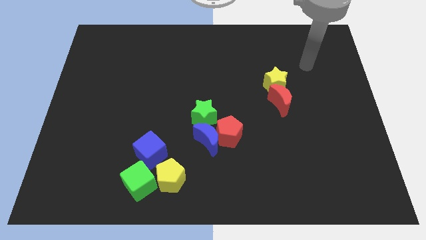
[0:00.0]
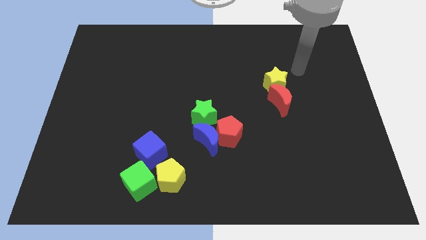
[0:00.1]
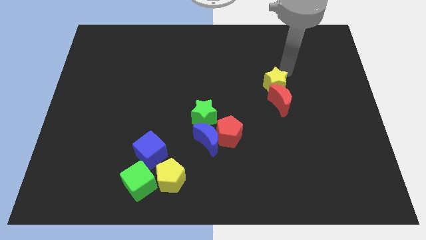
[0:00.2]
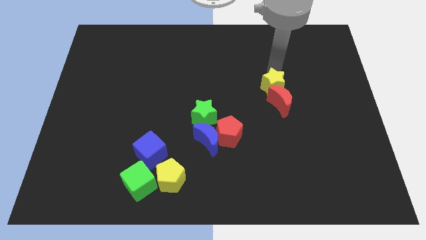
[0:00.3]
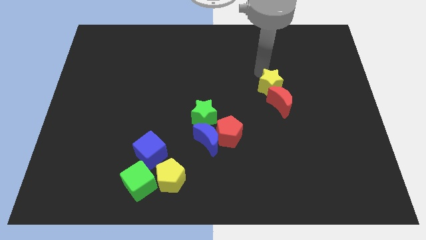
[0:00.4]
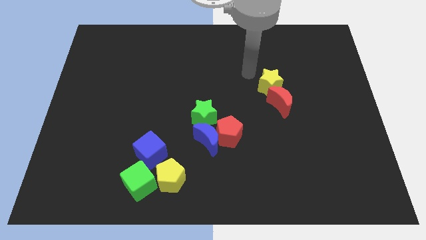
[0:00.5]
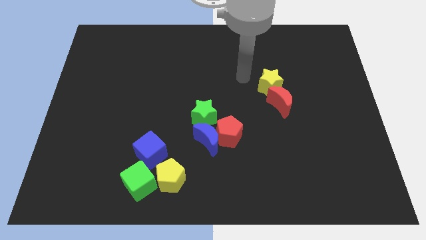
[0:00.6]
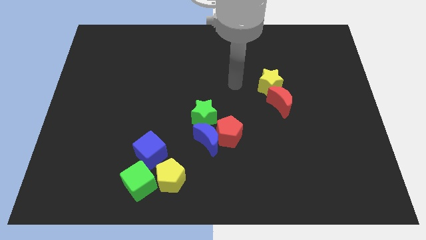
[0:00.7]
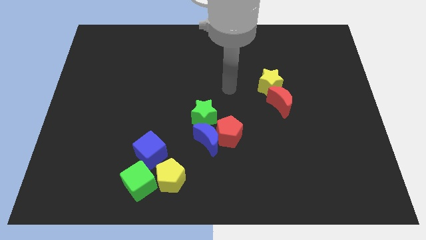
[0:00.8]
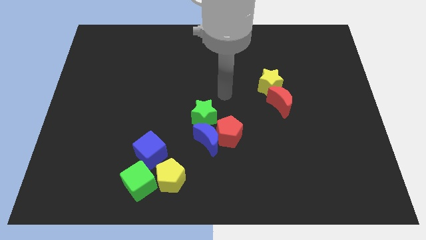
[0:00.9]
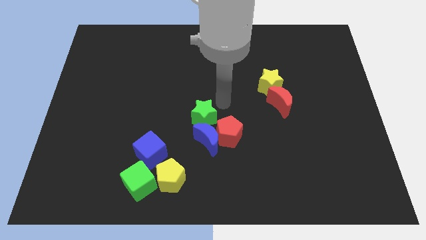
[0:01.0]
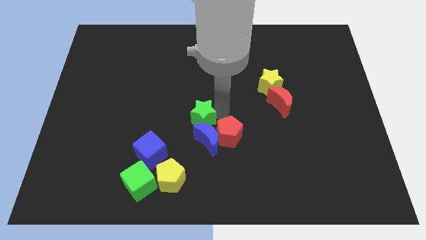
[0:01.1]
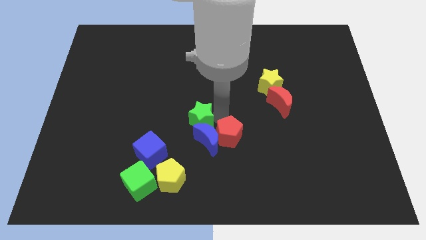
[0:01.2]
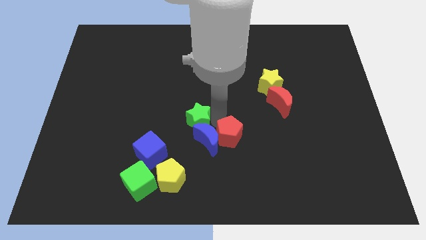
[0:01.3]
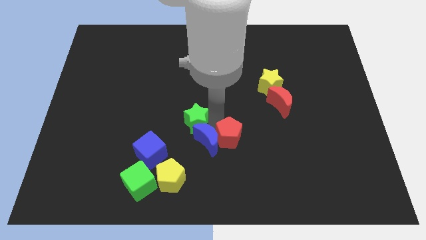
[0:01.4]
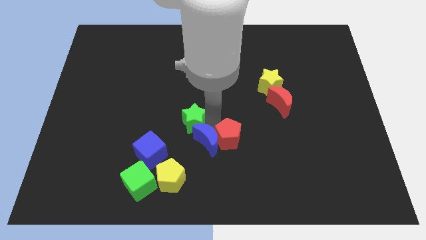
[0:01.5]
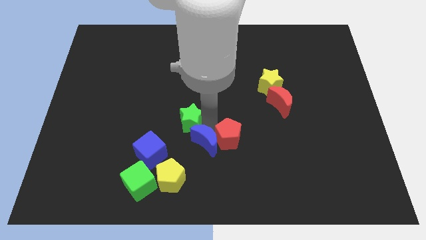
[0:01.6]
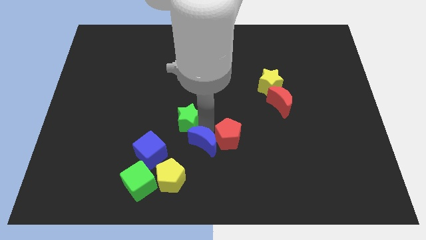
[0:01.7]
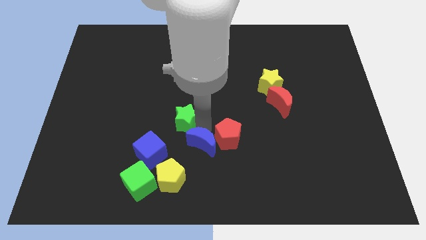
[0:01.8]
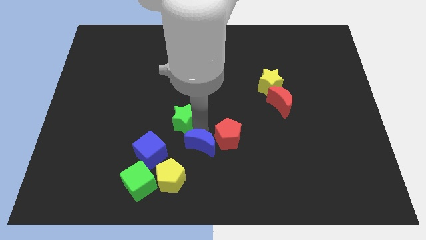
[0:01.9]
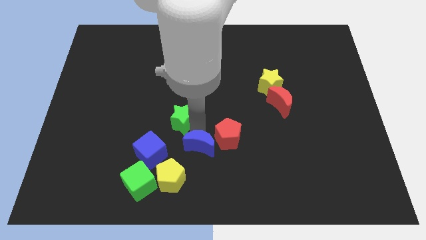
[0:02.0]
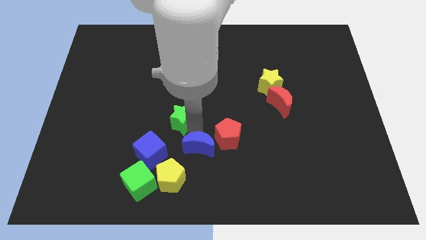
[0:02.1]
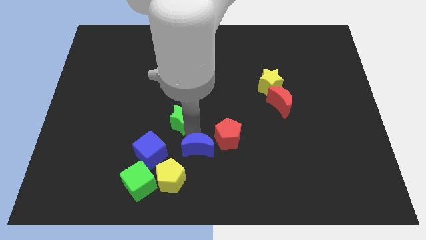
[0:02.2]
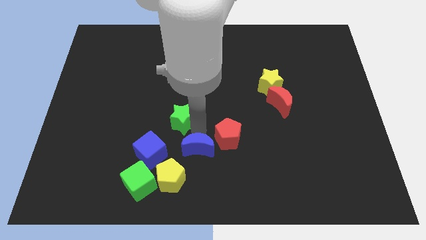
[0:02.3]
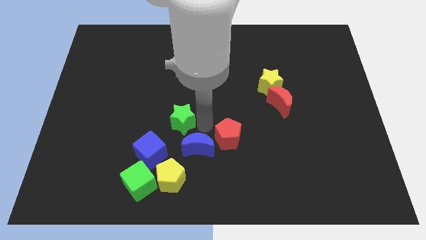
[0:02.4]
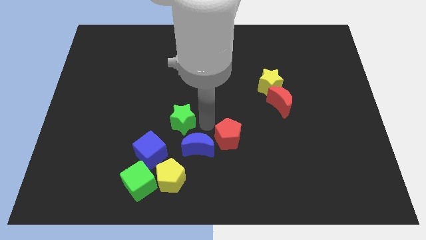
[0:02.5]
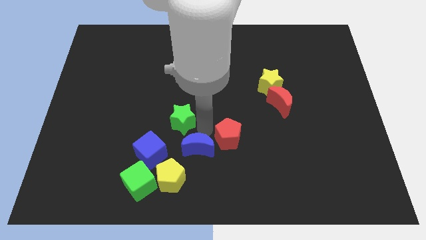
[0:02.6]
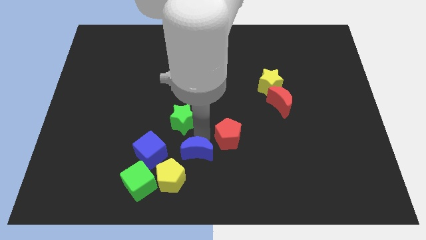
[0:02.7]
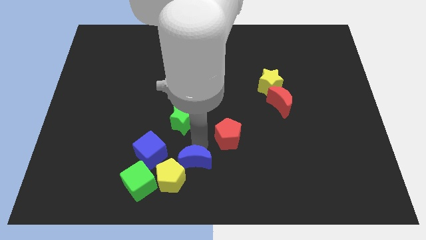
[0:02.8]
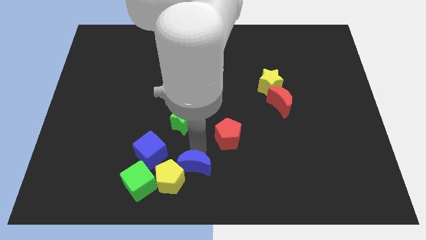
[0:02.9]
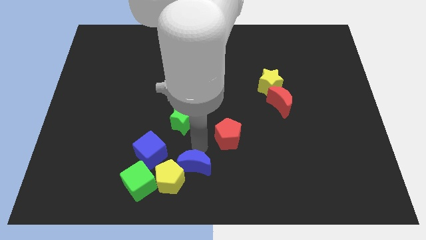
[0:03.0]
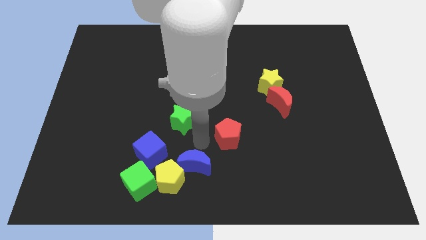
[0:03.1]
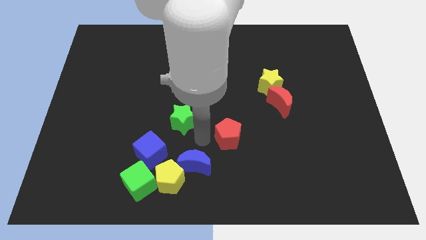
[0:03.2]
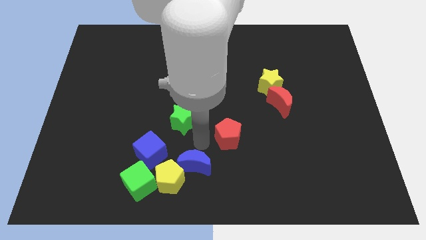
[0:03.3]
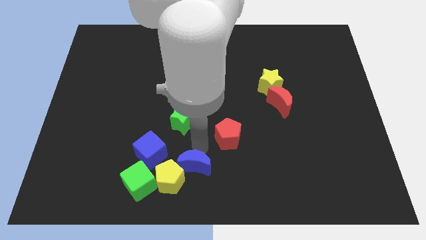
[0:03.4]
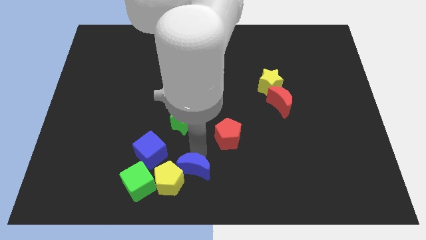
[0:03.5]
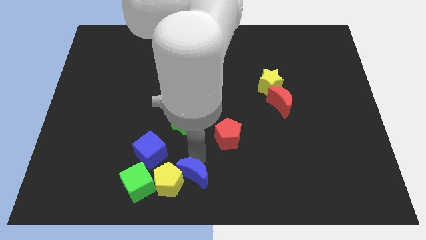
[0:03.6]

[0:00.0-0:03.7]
move the blue moon away from the red pentagon and green star

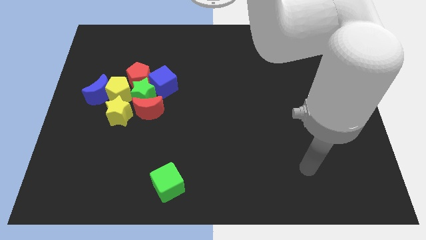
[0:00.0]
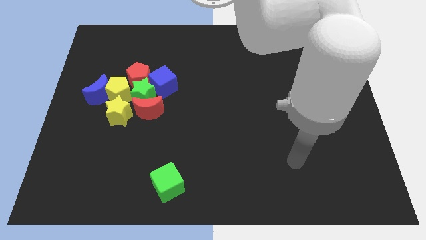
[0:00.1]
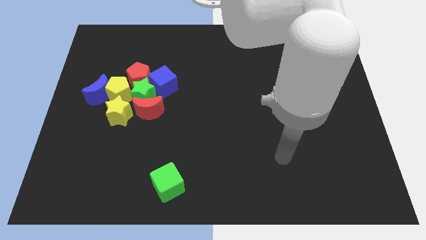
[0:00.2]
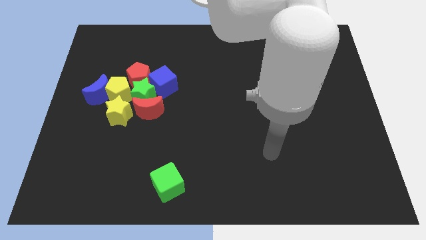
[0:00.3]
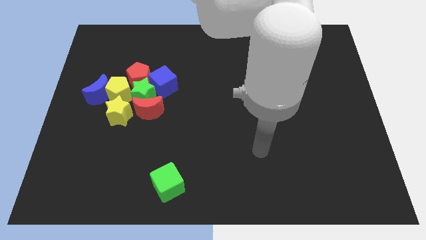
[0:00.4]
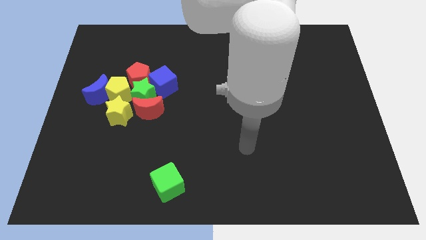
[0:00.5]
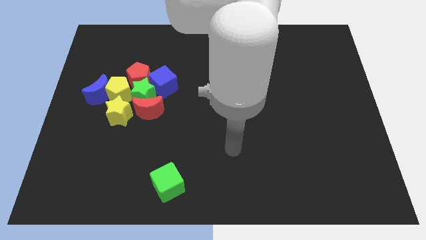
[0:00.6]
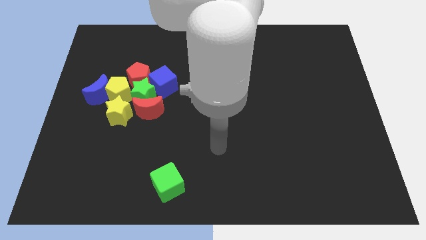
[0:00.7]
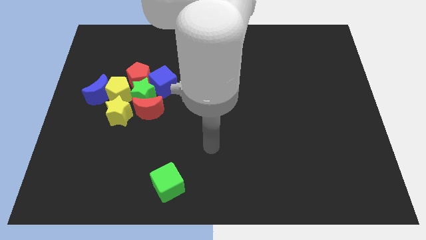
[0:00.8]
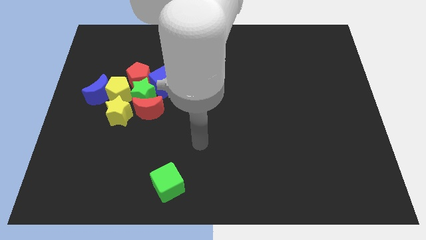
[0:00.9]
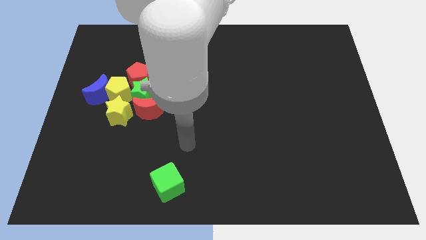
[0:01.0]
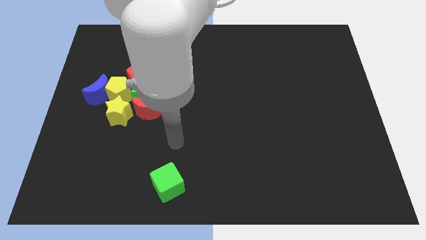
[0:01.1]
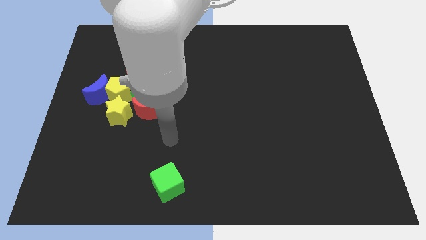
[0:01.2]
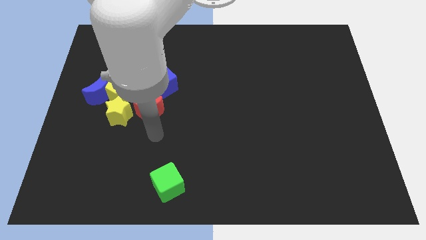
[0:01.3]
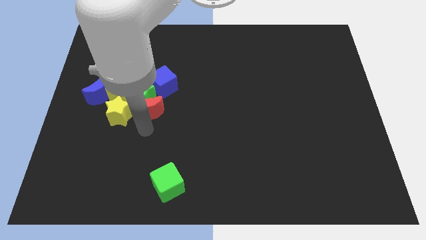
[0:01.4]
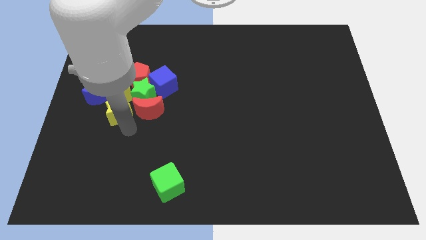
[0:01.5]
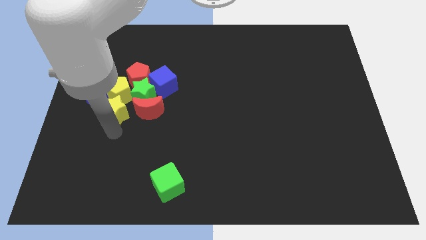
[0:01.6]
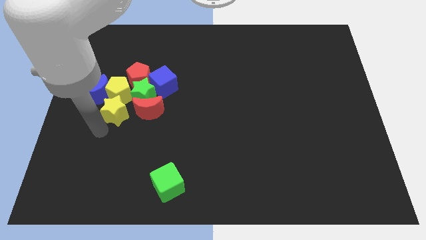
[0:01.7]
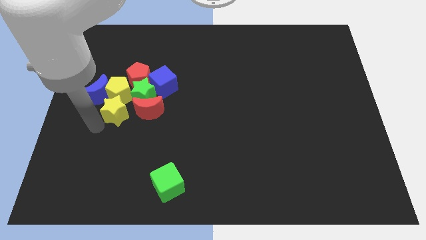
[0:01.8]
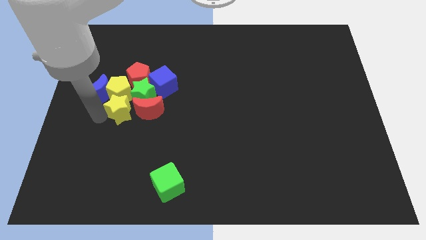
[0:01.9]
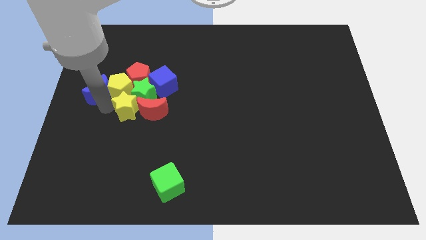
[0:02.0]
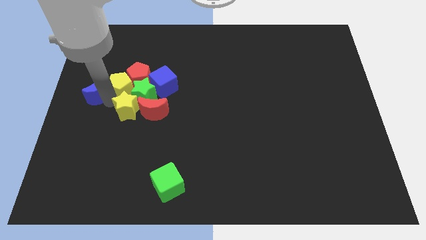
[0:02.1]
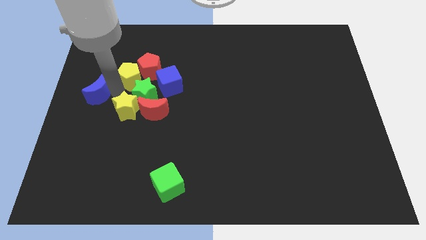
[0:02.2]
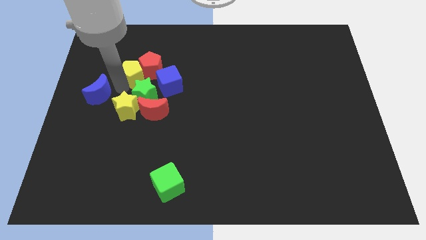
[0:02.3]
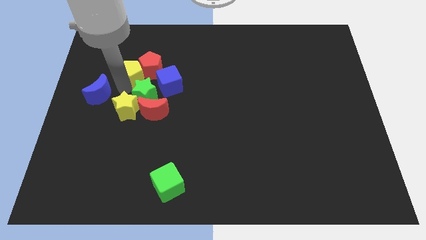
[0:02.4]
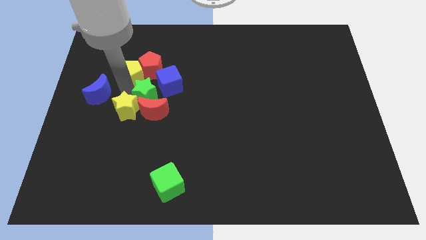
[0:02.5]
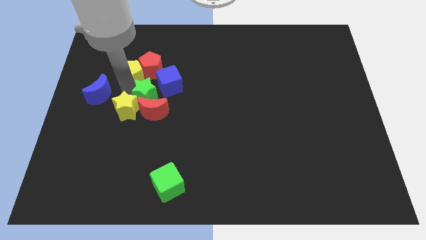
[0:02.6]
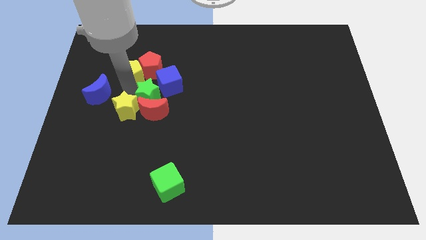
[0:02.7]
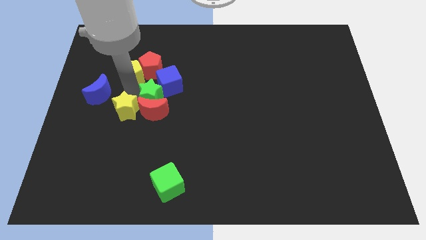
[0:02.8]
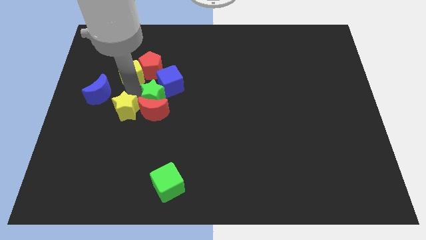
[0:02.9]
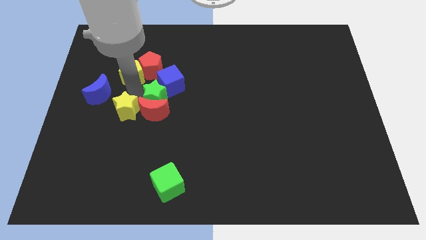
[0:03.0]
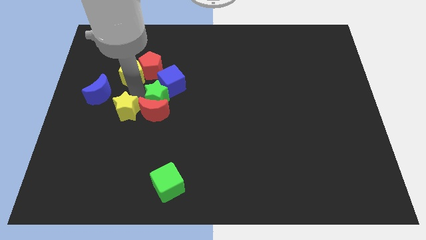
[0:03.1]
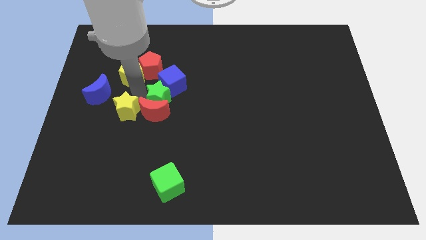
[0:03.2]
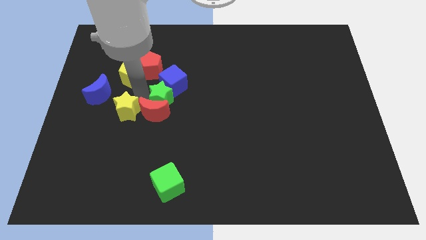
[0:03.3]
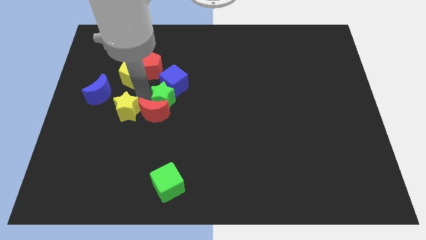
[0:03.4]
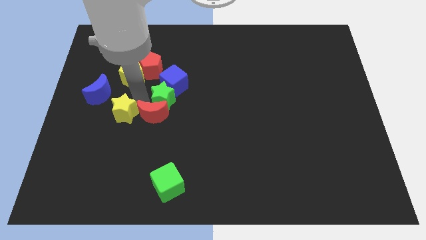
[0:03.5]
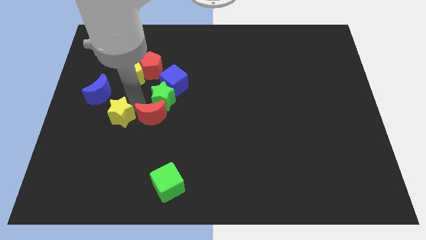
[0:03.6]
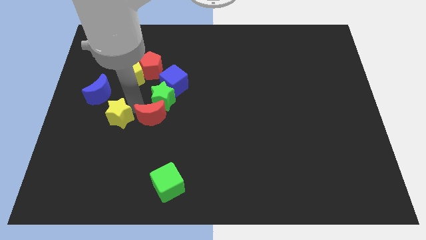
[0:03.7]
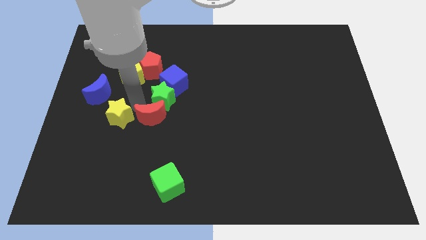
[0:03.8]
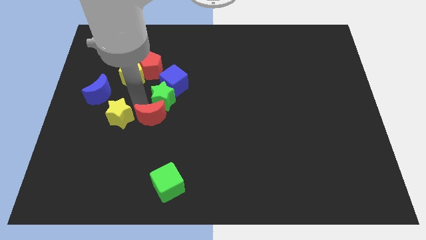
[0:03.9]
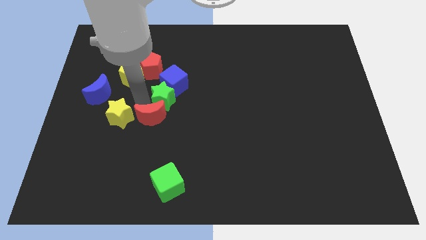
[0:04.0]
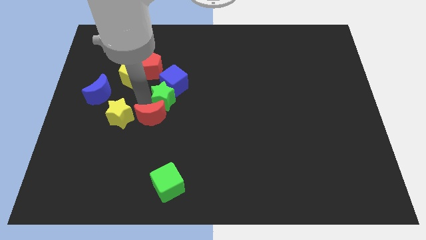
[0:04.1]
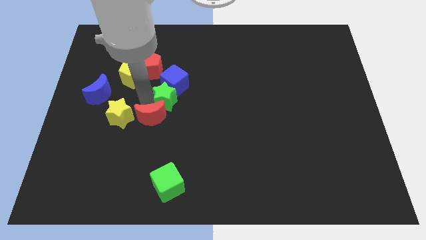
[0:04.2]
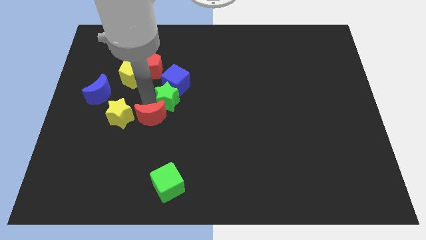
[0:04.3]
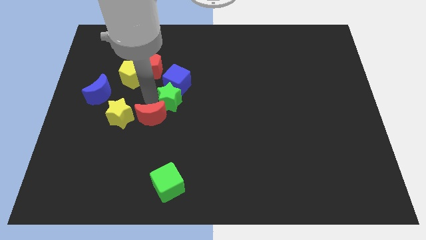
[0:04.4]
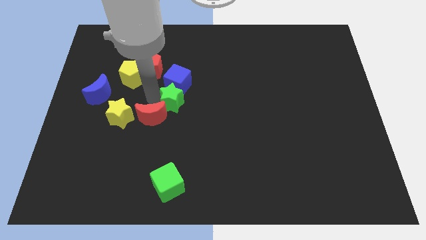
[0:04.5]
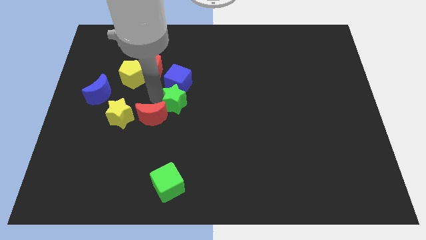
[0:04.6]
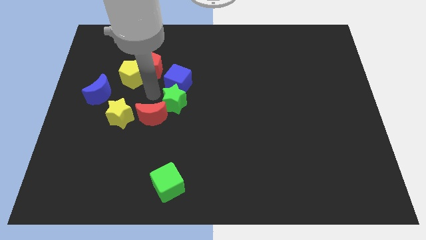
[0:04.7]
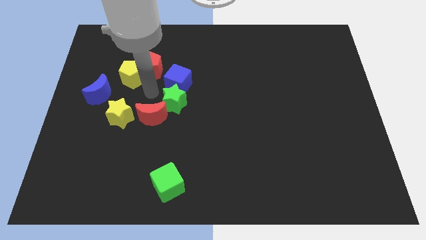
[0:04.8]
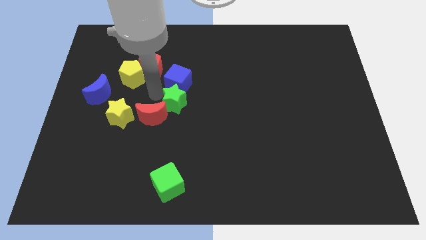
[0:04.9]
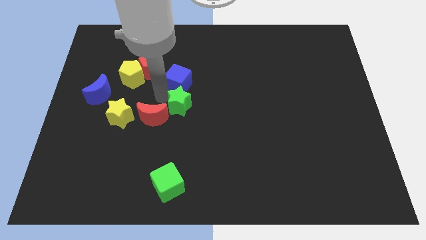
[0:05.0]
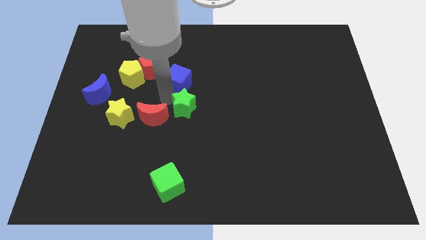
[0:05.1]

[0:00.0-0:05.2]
separate the green star from the group

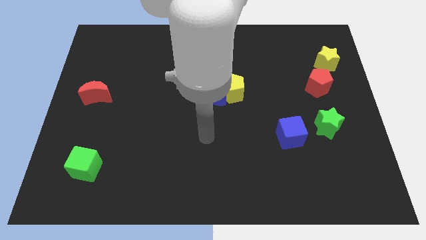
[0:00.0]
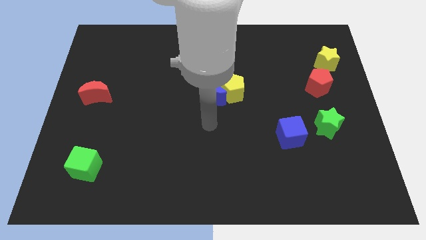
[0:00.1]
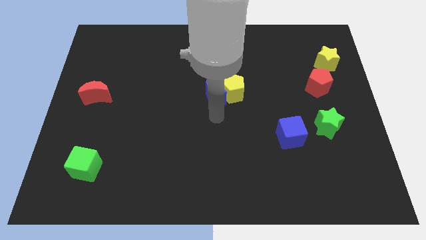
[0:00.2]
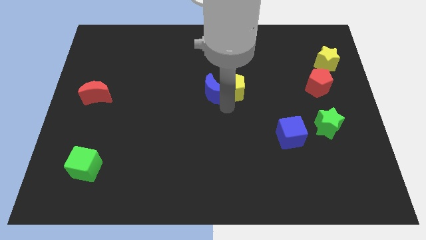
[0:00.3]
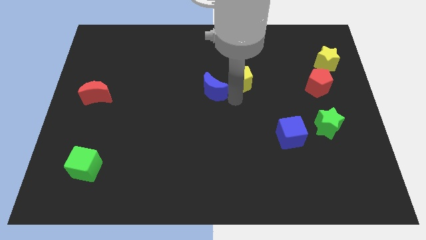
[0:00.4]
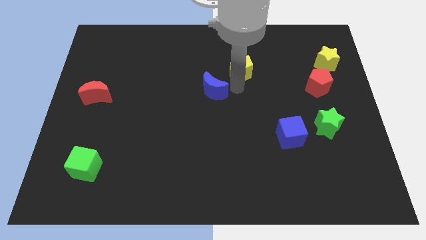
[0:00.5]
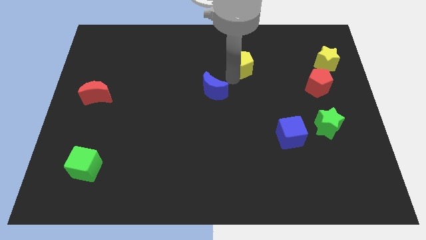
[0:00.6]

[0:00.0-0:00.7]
pull the blue moon apart from the yellow pentagon

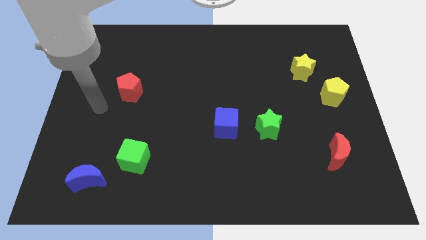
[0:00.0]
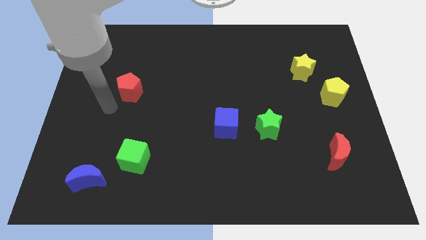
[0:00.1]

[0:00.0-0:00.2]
pull the blue cube apart from the green star
